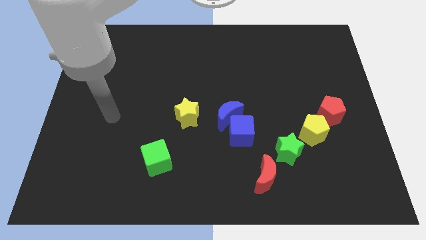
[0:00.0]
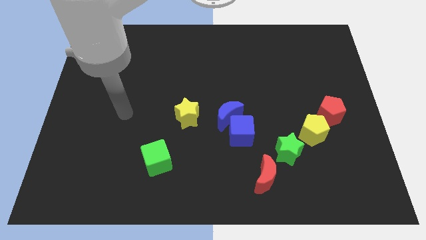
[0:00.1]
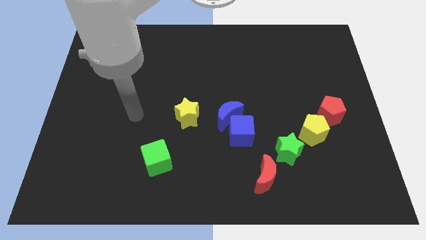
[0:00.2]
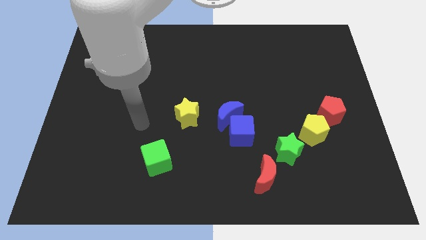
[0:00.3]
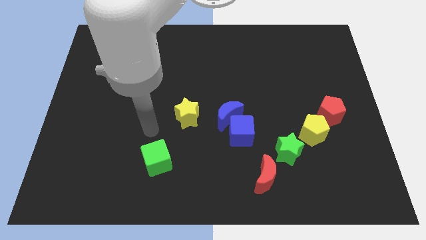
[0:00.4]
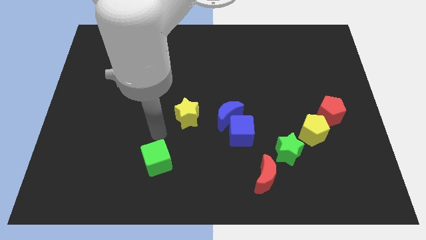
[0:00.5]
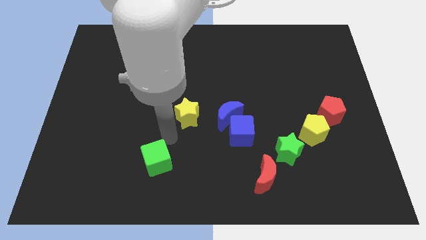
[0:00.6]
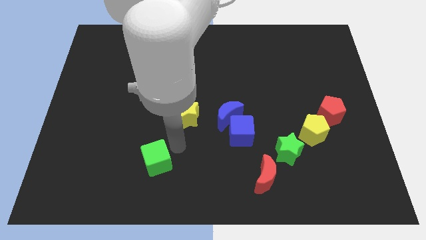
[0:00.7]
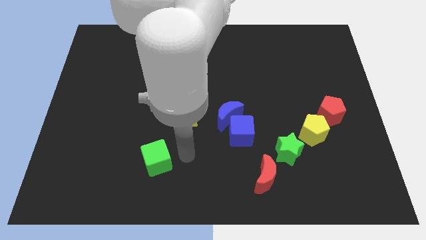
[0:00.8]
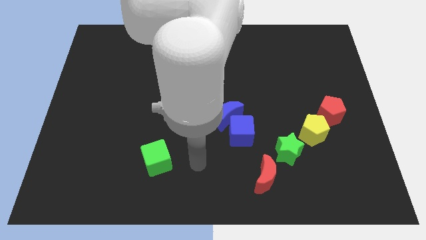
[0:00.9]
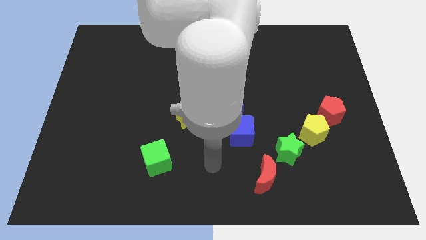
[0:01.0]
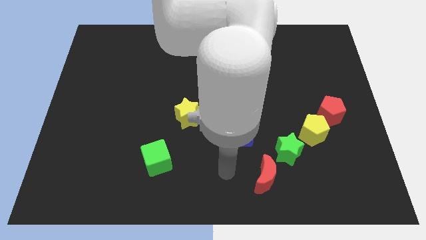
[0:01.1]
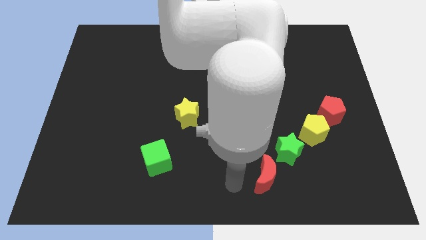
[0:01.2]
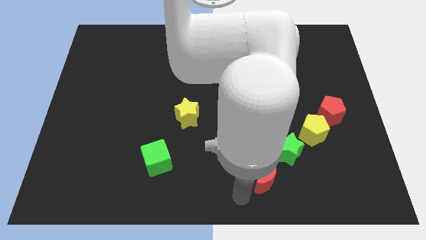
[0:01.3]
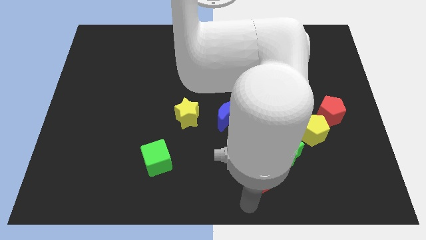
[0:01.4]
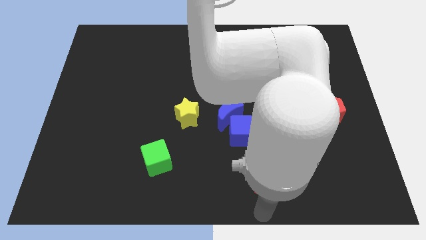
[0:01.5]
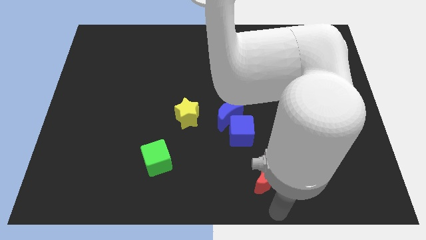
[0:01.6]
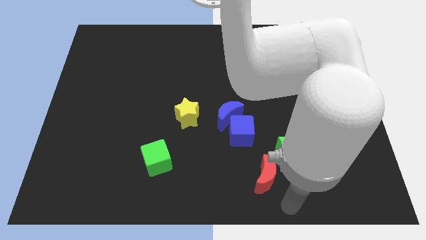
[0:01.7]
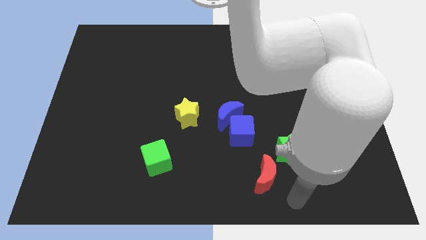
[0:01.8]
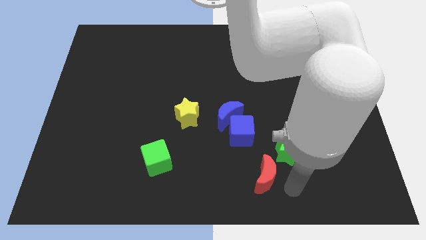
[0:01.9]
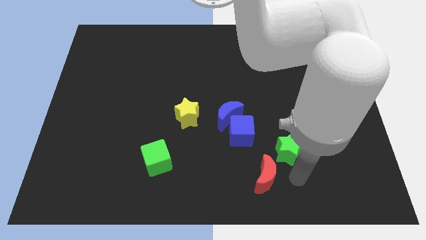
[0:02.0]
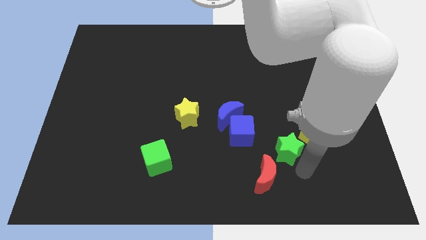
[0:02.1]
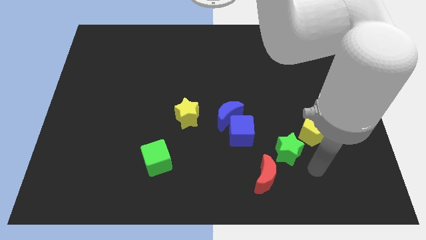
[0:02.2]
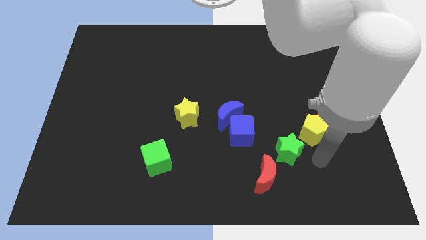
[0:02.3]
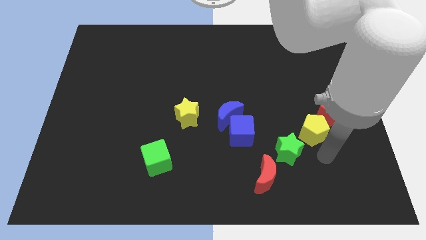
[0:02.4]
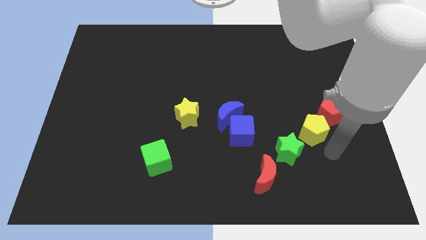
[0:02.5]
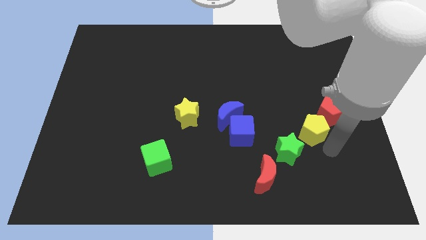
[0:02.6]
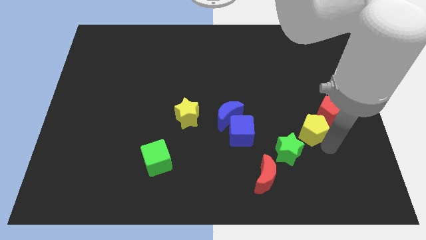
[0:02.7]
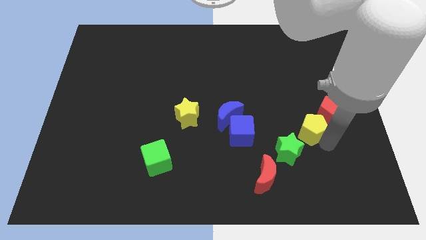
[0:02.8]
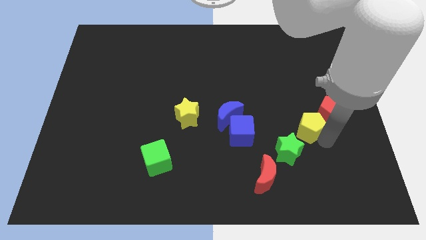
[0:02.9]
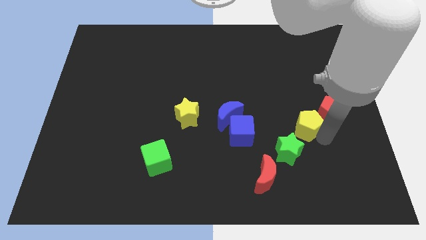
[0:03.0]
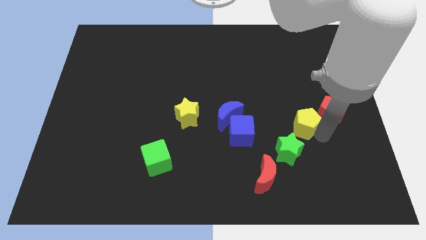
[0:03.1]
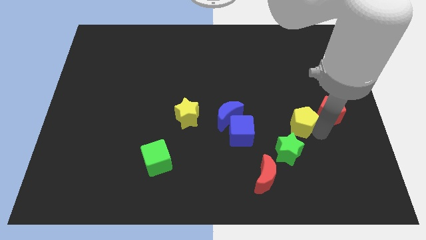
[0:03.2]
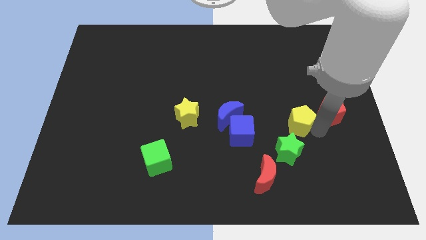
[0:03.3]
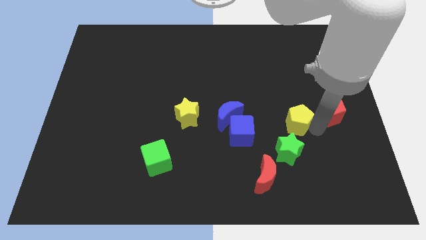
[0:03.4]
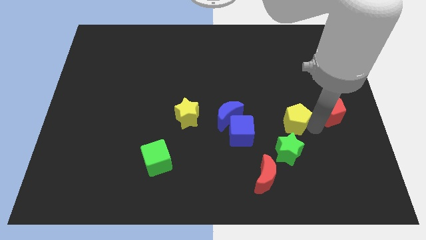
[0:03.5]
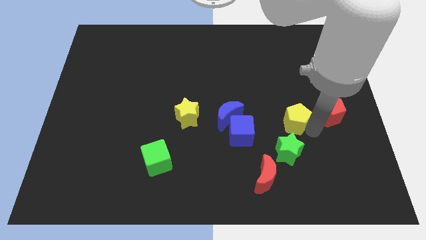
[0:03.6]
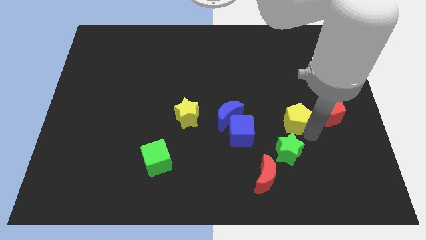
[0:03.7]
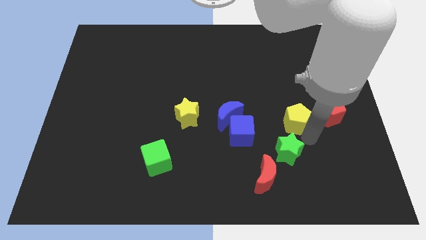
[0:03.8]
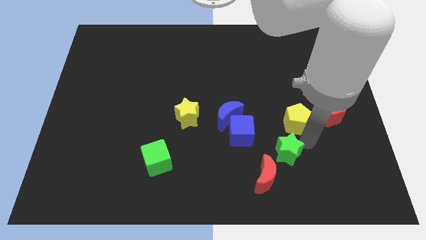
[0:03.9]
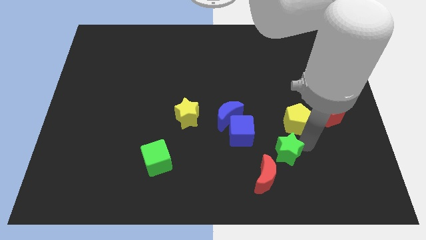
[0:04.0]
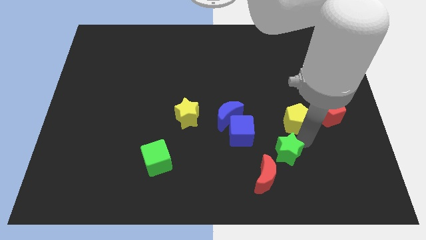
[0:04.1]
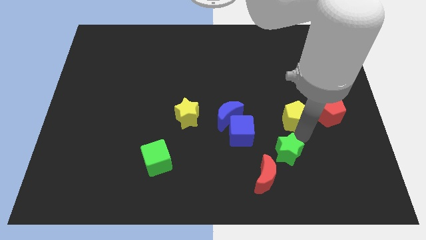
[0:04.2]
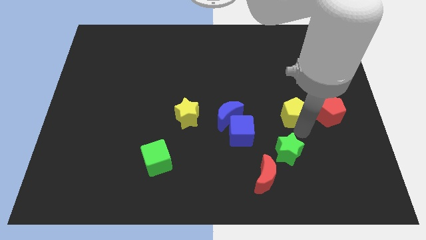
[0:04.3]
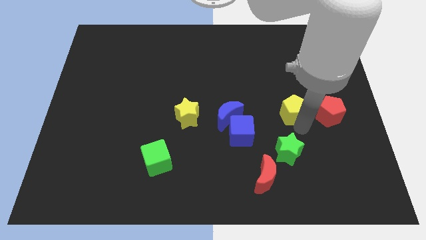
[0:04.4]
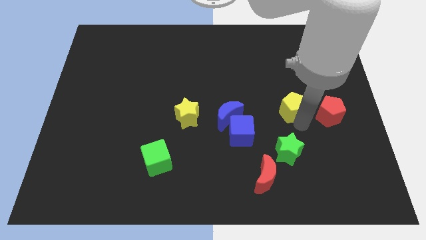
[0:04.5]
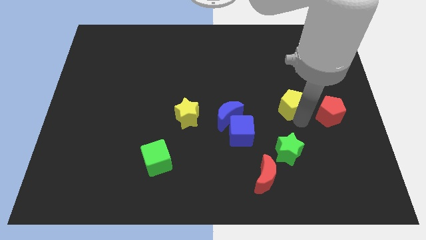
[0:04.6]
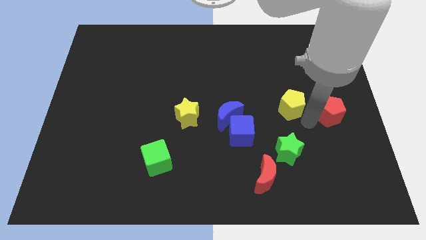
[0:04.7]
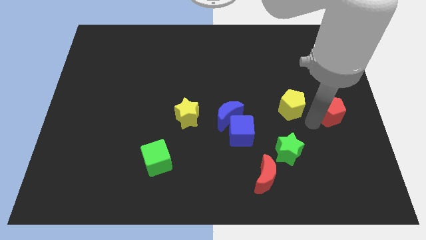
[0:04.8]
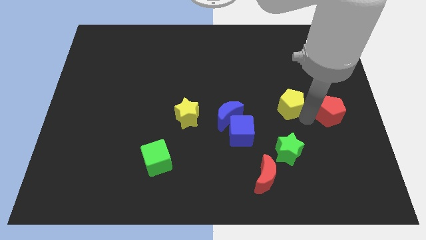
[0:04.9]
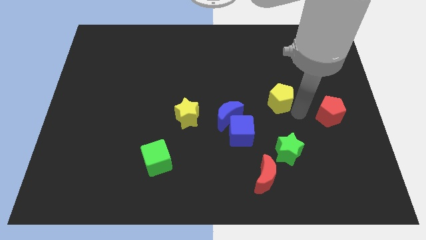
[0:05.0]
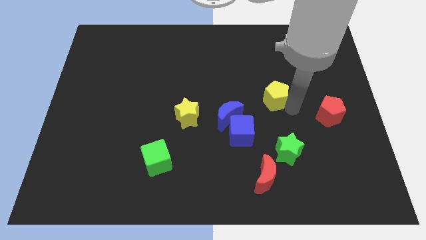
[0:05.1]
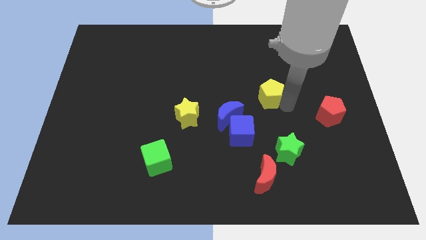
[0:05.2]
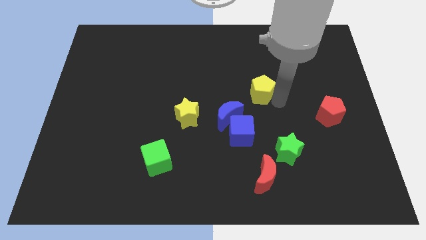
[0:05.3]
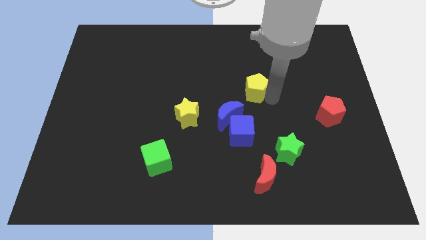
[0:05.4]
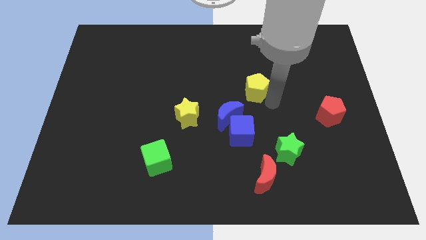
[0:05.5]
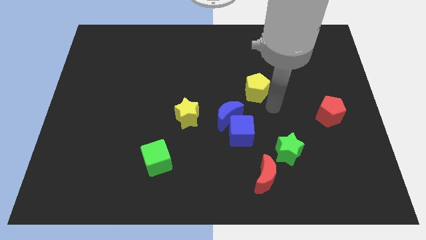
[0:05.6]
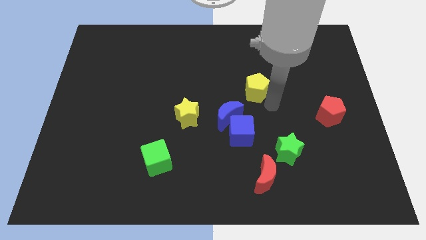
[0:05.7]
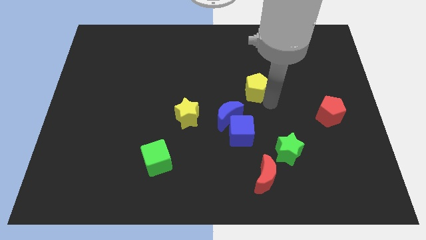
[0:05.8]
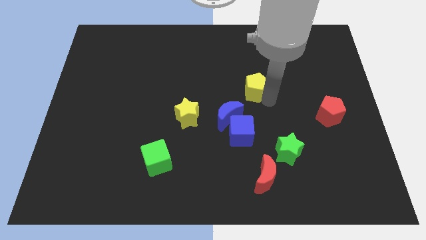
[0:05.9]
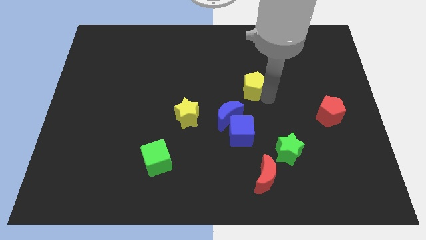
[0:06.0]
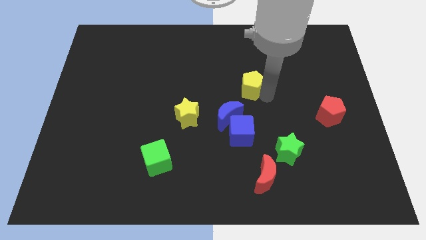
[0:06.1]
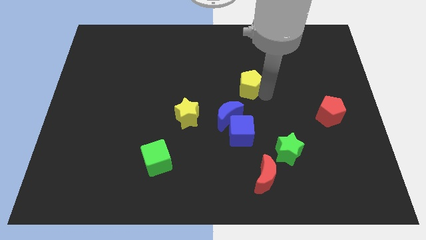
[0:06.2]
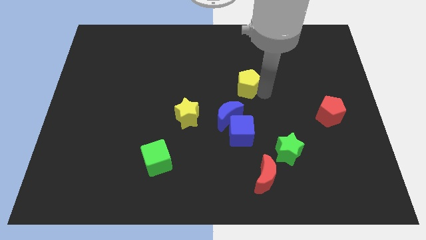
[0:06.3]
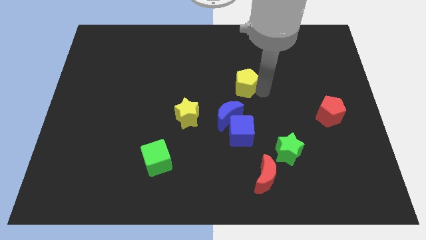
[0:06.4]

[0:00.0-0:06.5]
slide the yellow pentagon upwards and to the left

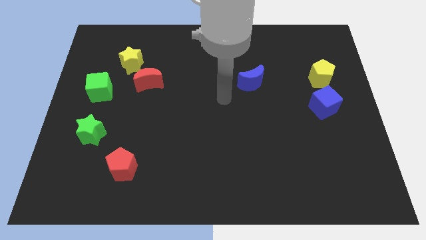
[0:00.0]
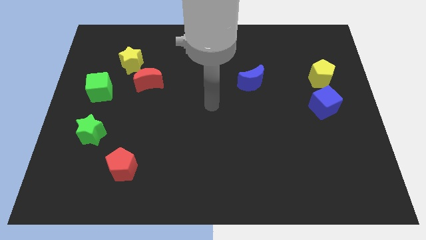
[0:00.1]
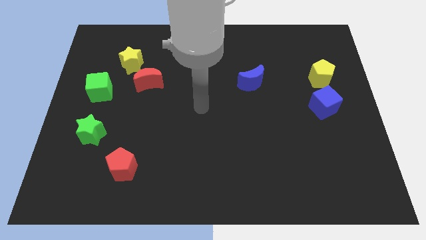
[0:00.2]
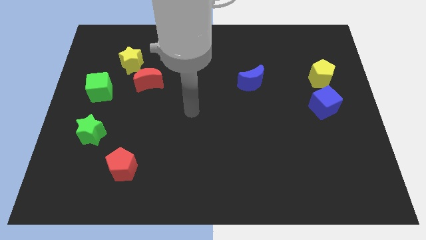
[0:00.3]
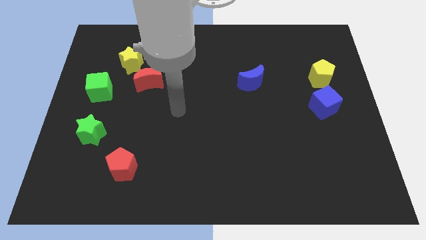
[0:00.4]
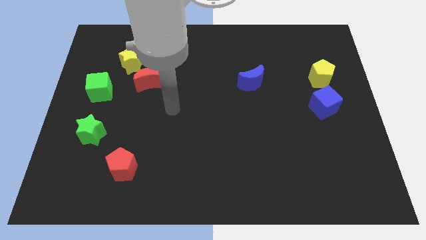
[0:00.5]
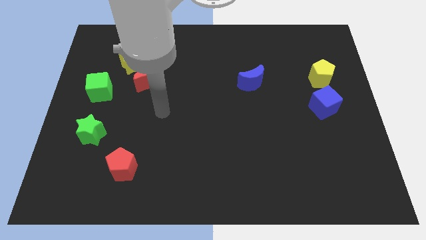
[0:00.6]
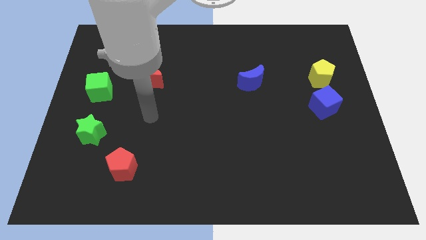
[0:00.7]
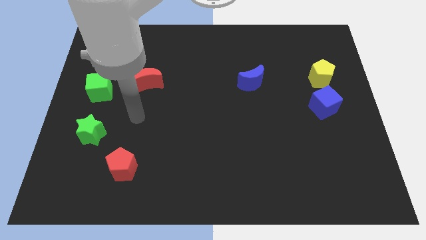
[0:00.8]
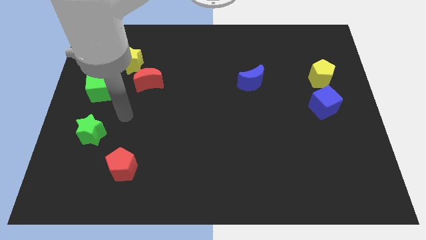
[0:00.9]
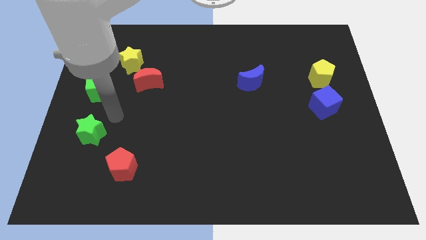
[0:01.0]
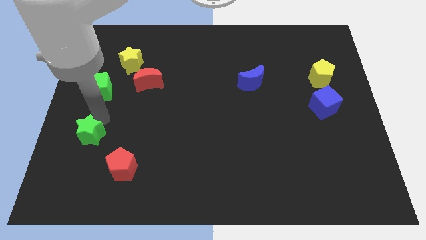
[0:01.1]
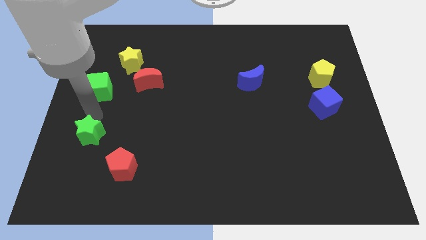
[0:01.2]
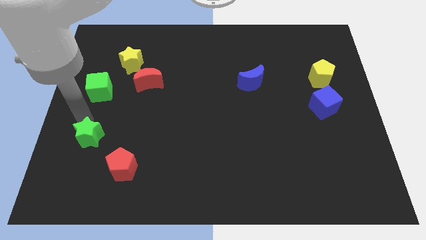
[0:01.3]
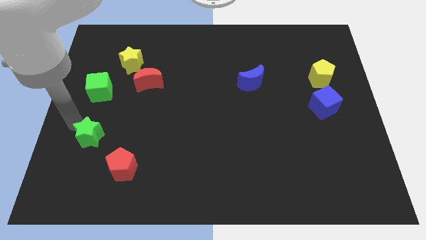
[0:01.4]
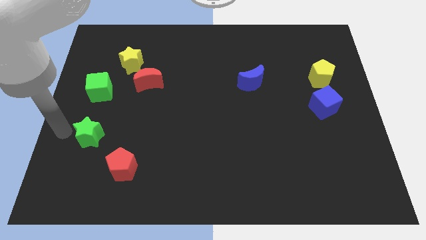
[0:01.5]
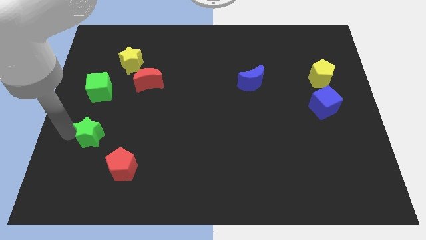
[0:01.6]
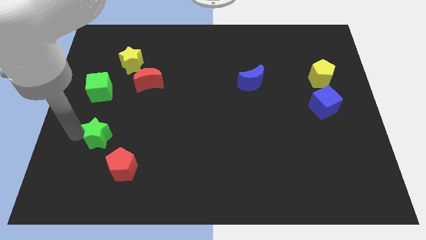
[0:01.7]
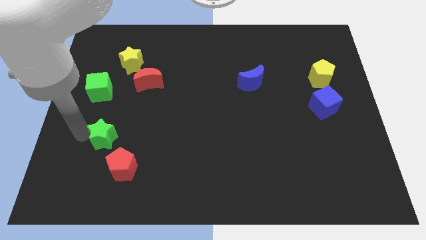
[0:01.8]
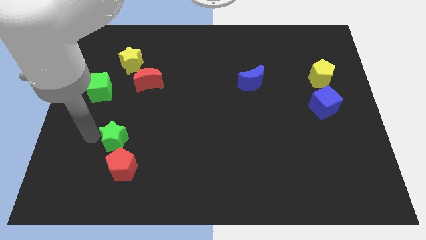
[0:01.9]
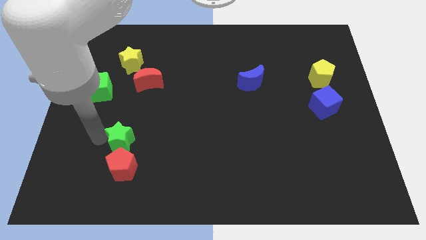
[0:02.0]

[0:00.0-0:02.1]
push the green star somewhat to the right
